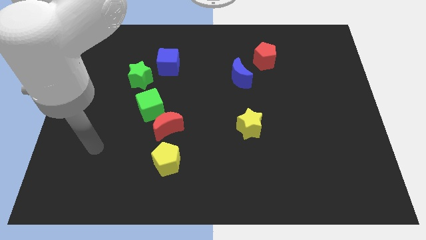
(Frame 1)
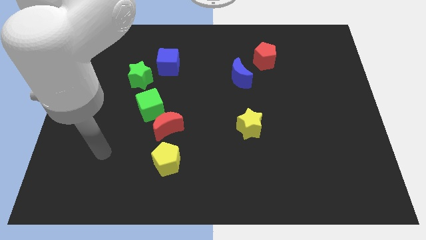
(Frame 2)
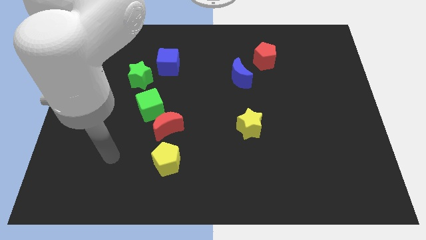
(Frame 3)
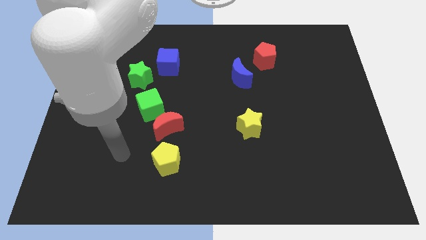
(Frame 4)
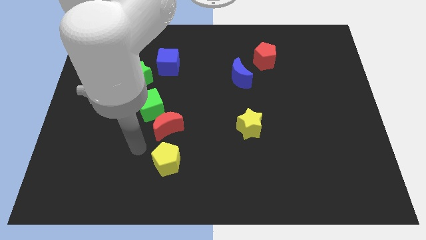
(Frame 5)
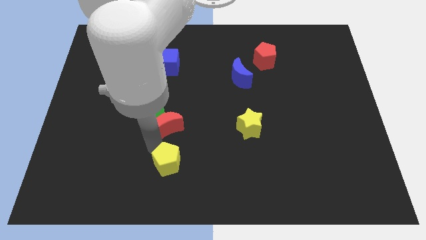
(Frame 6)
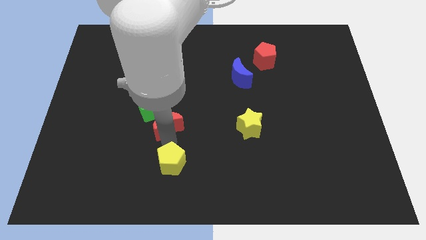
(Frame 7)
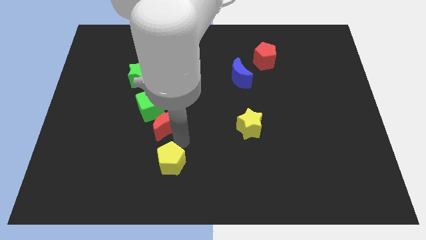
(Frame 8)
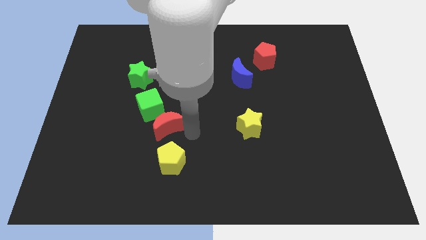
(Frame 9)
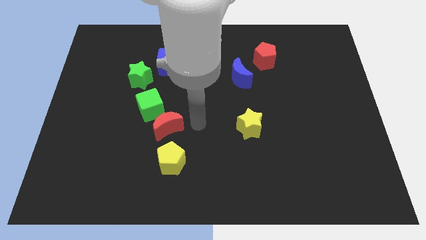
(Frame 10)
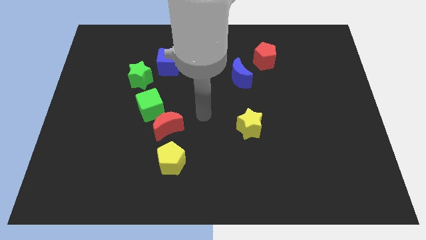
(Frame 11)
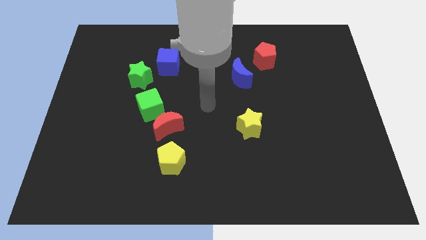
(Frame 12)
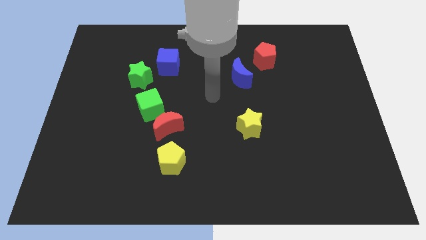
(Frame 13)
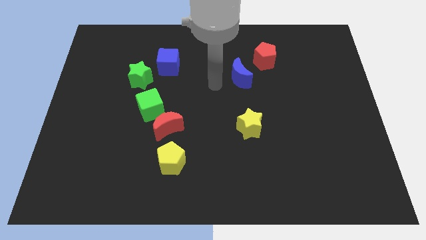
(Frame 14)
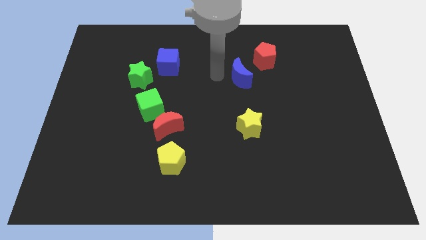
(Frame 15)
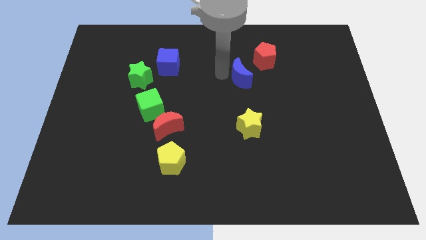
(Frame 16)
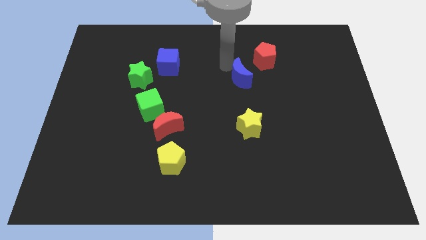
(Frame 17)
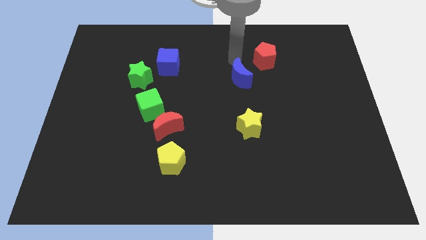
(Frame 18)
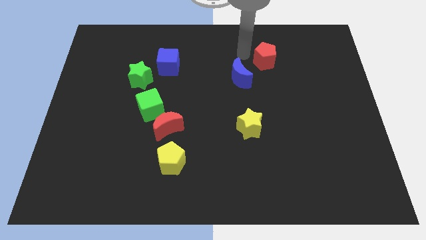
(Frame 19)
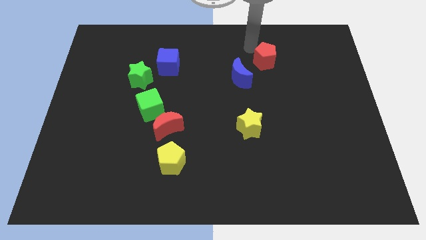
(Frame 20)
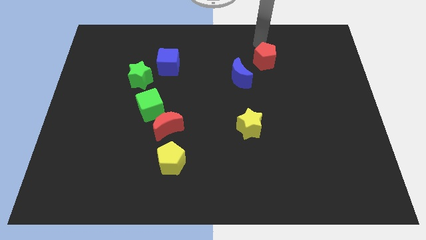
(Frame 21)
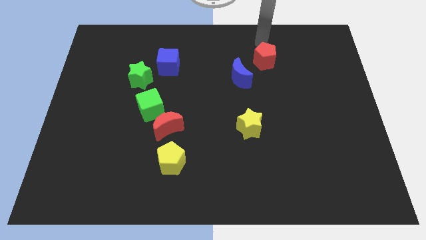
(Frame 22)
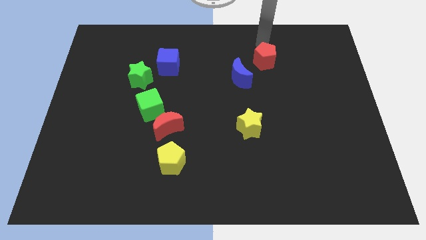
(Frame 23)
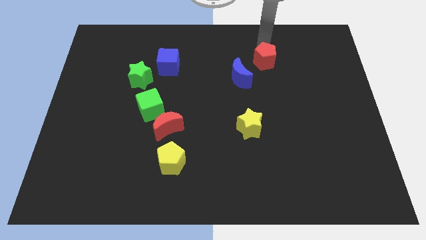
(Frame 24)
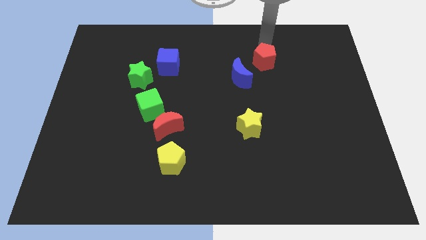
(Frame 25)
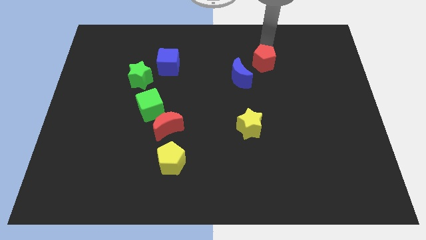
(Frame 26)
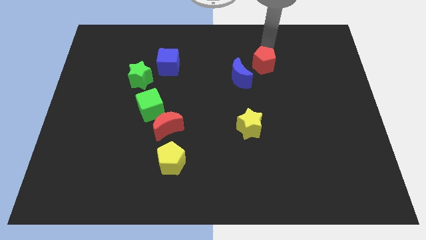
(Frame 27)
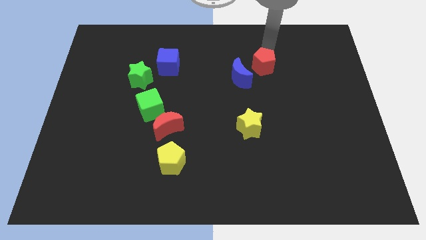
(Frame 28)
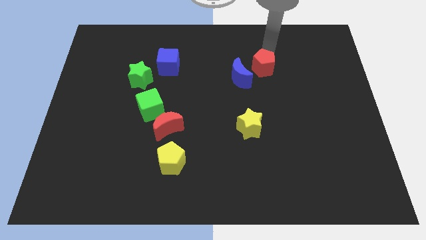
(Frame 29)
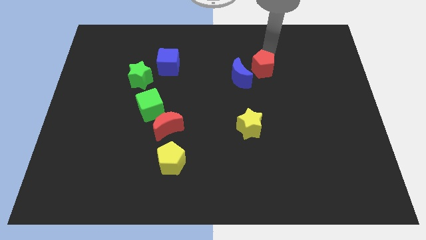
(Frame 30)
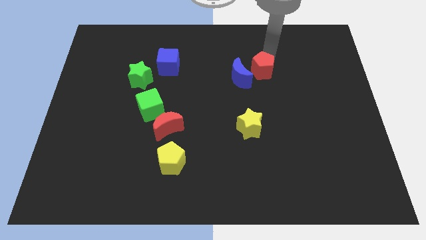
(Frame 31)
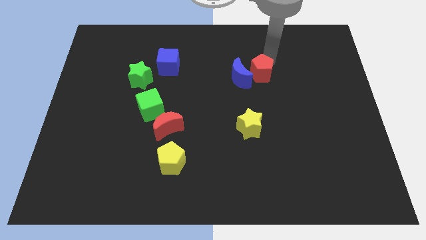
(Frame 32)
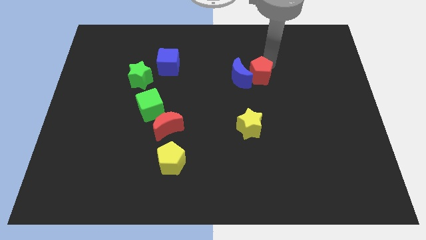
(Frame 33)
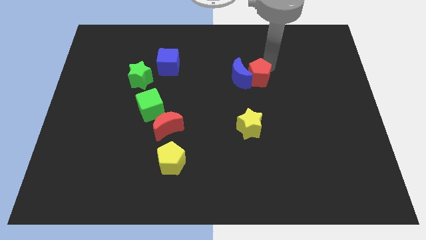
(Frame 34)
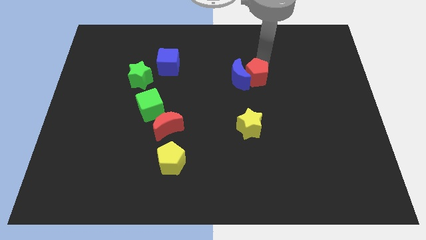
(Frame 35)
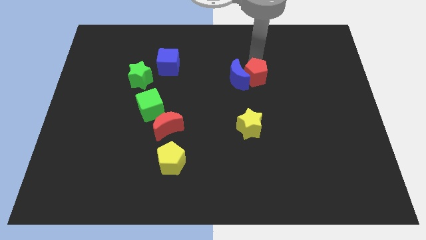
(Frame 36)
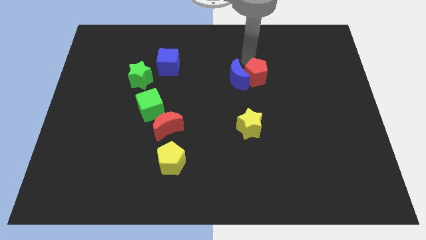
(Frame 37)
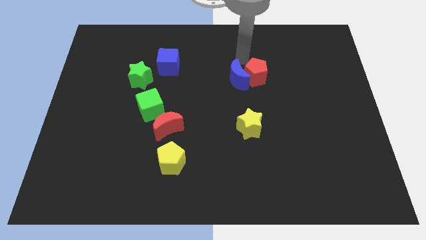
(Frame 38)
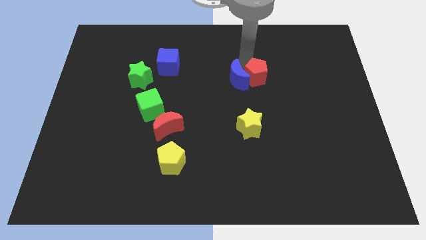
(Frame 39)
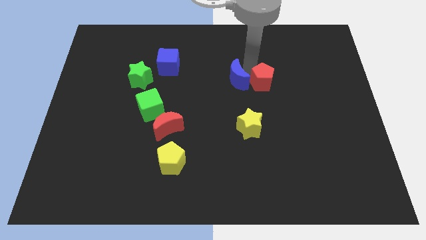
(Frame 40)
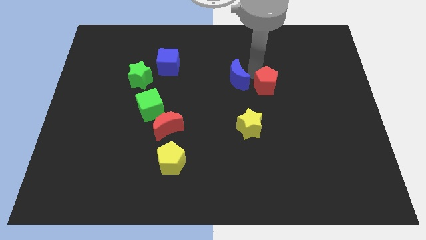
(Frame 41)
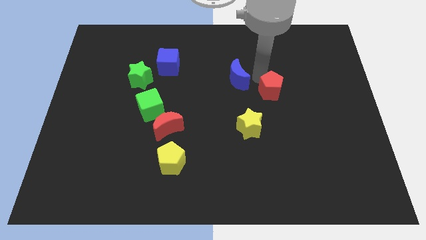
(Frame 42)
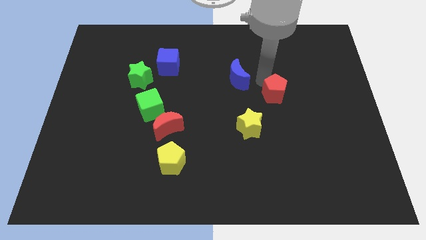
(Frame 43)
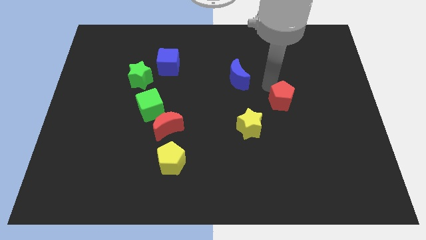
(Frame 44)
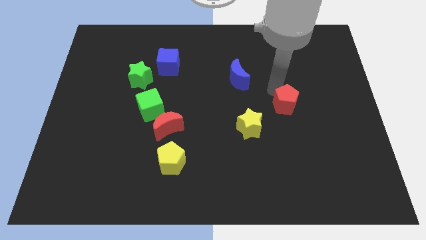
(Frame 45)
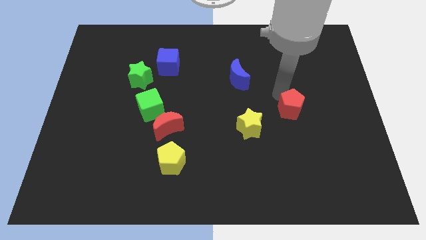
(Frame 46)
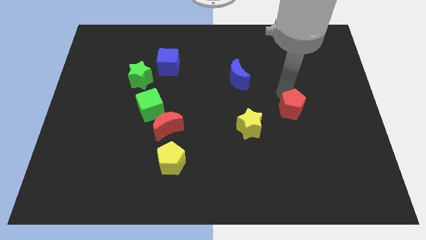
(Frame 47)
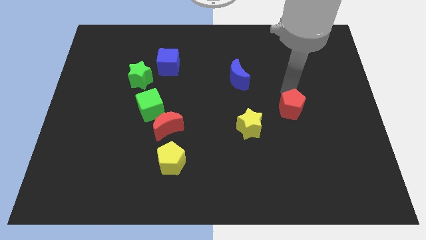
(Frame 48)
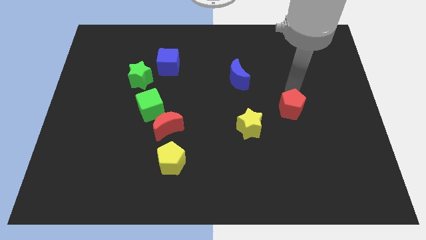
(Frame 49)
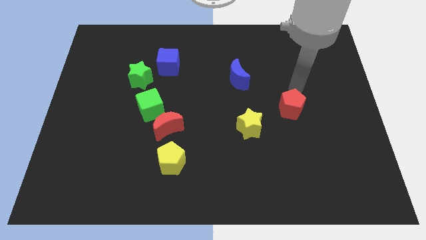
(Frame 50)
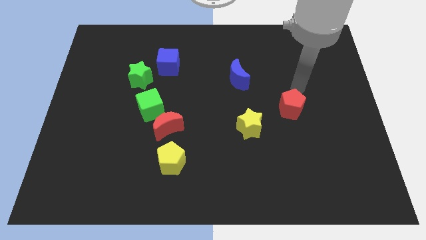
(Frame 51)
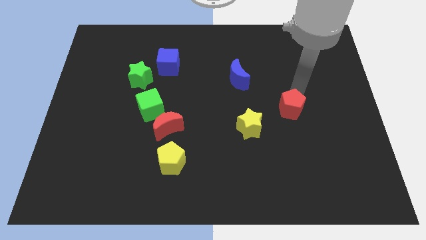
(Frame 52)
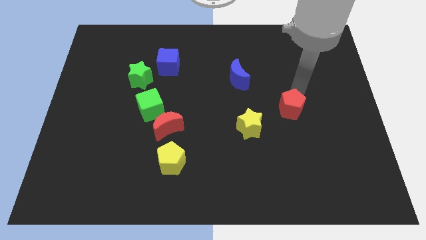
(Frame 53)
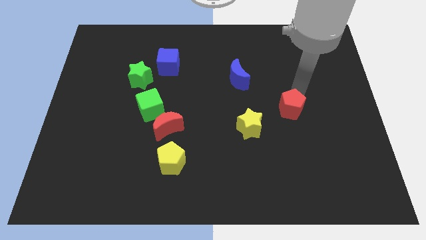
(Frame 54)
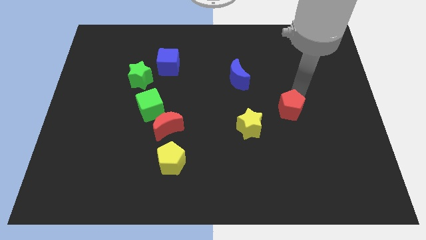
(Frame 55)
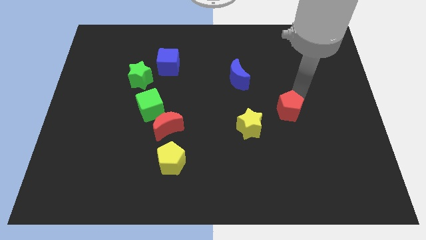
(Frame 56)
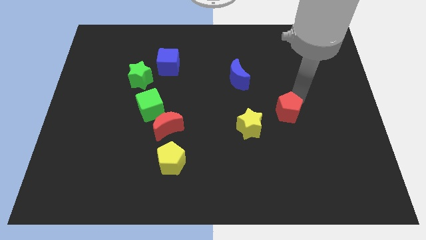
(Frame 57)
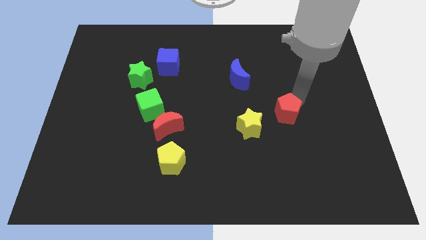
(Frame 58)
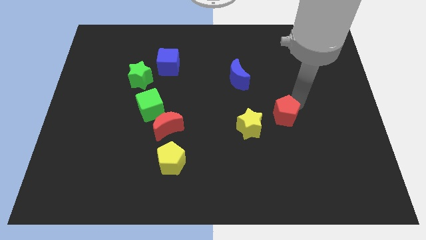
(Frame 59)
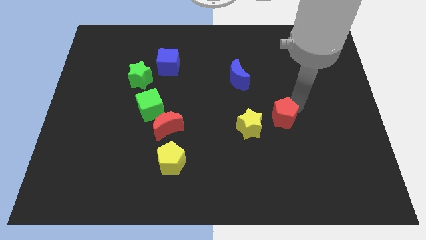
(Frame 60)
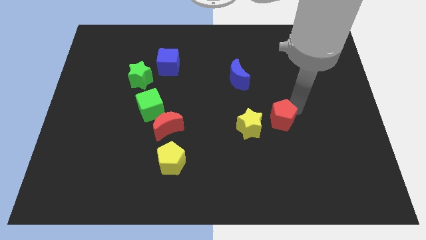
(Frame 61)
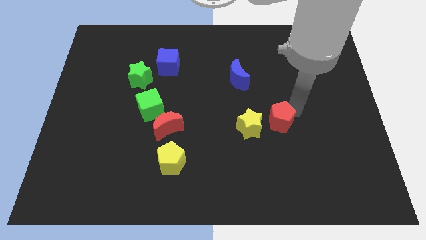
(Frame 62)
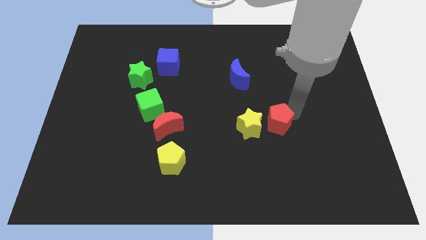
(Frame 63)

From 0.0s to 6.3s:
push the red pentagon down

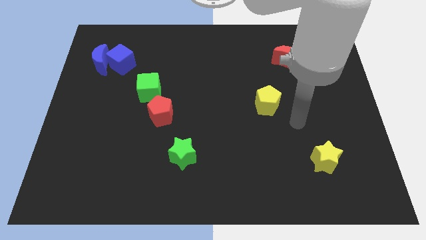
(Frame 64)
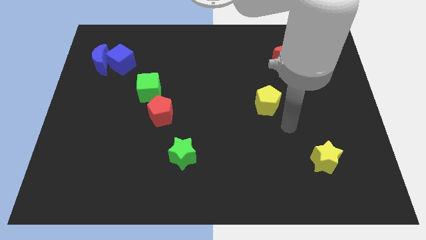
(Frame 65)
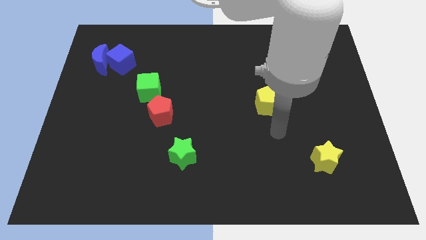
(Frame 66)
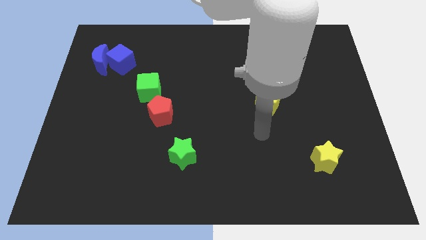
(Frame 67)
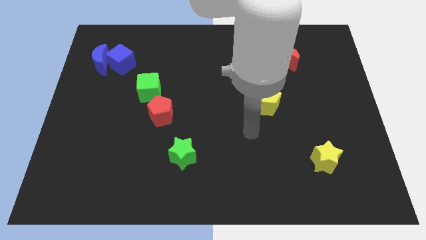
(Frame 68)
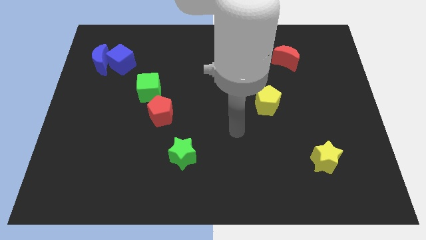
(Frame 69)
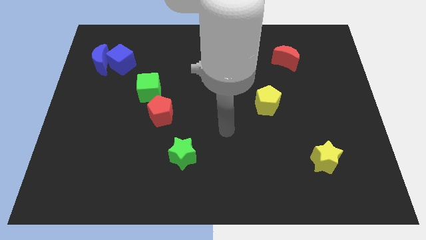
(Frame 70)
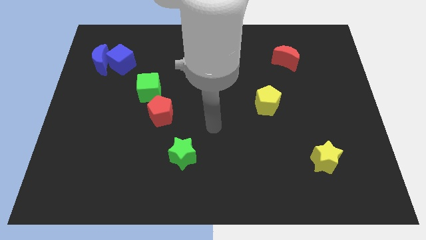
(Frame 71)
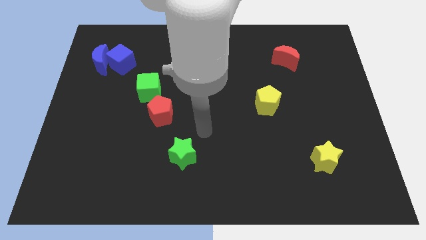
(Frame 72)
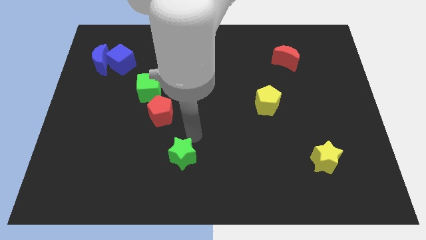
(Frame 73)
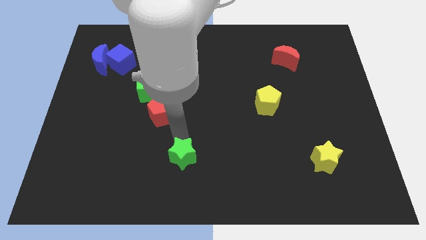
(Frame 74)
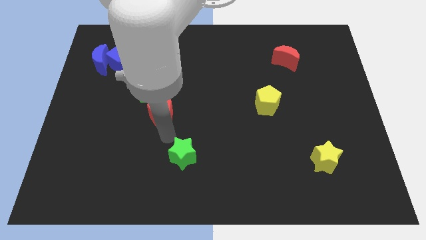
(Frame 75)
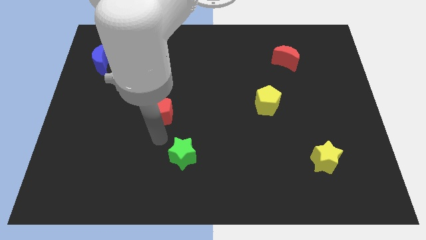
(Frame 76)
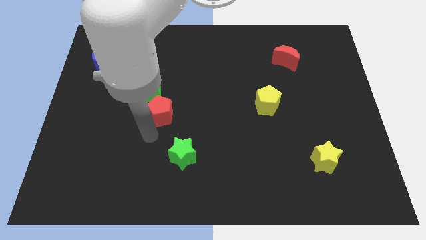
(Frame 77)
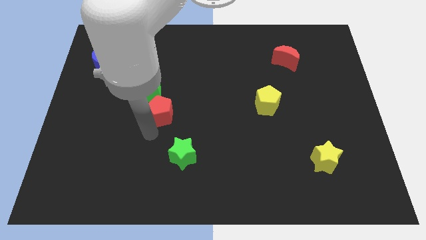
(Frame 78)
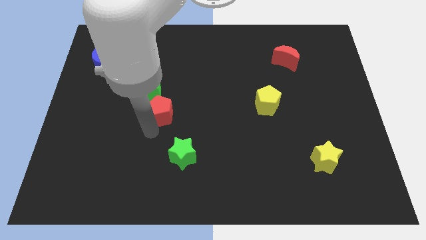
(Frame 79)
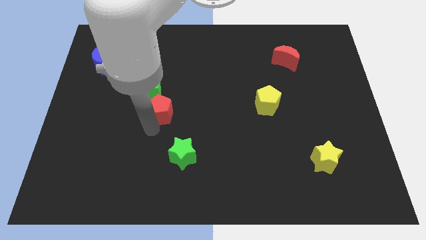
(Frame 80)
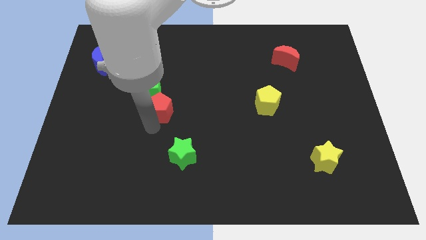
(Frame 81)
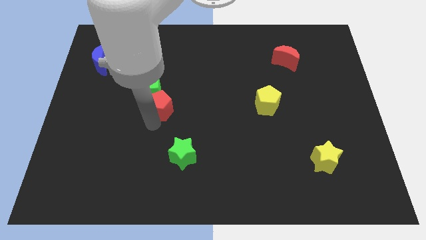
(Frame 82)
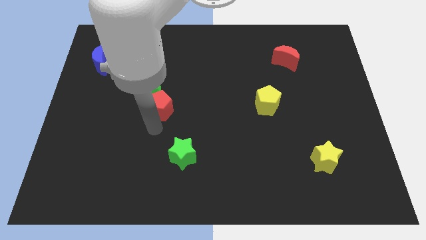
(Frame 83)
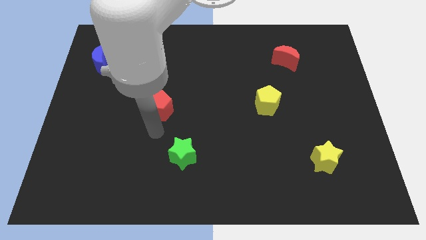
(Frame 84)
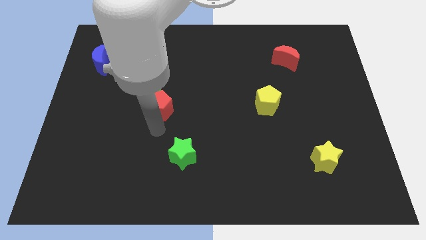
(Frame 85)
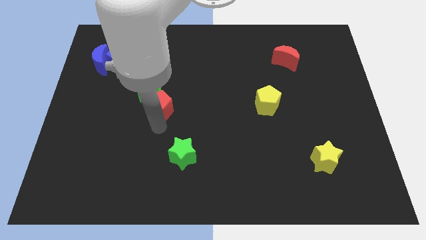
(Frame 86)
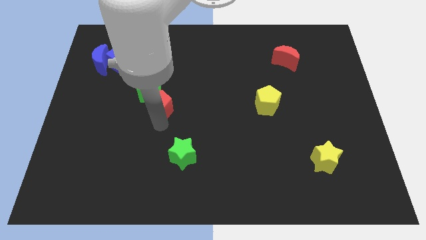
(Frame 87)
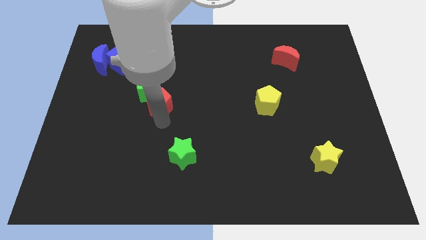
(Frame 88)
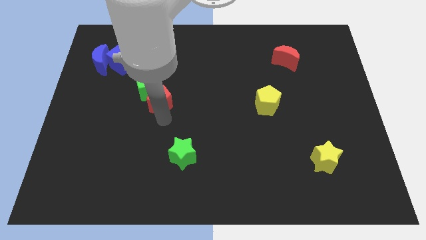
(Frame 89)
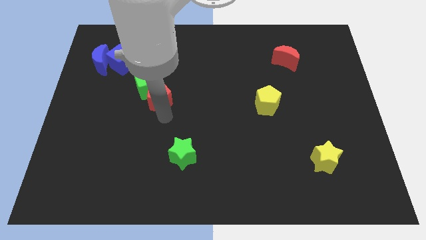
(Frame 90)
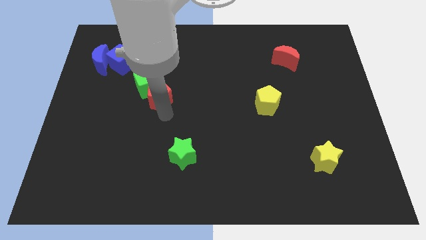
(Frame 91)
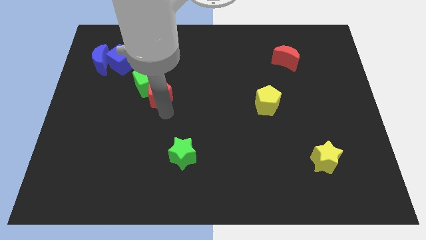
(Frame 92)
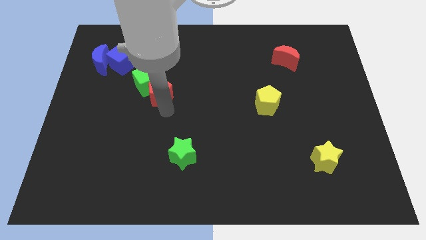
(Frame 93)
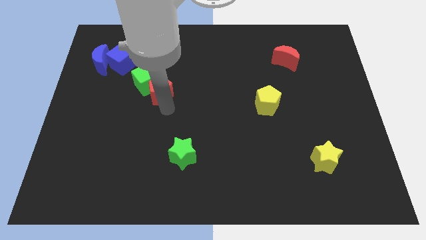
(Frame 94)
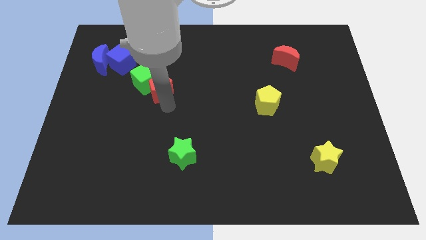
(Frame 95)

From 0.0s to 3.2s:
slightly slide the red pentagon up
